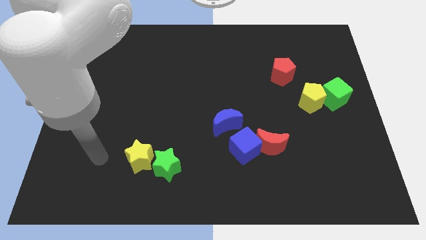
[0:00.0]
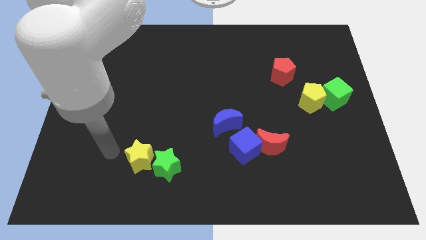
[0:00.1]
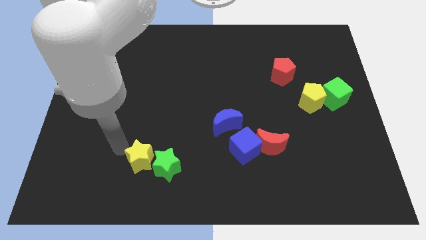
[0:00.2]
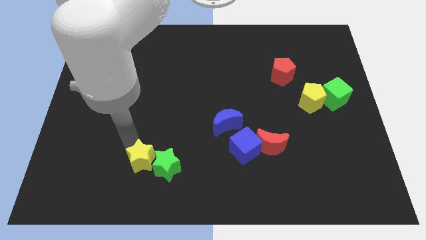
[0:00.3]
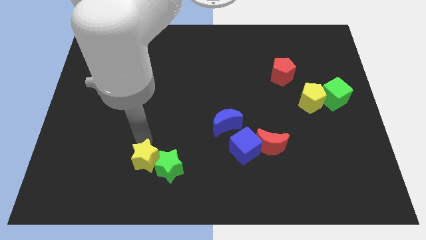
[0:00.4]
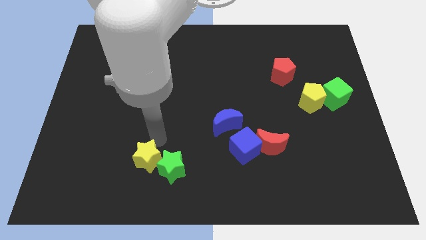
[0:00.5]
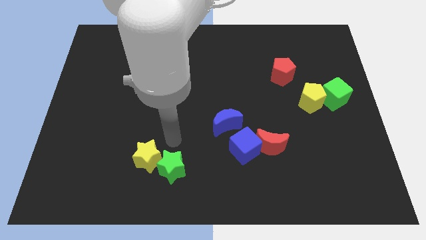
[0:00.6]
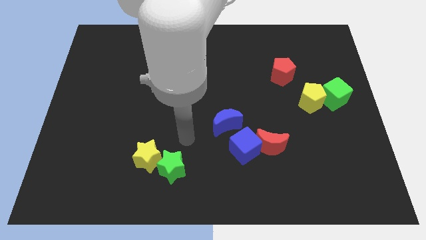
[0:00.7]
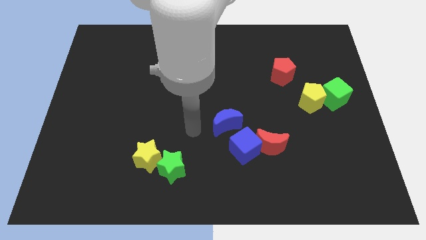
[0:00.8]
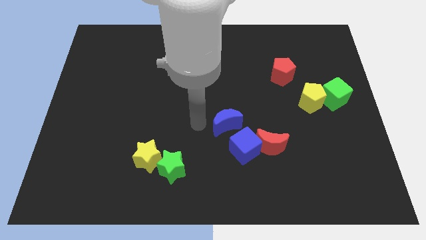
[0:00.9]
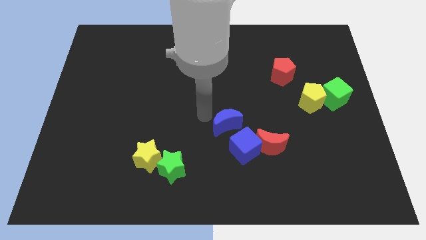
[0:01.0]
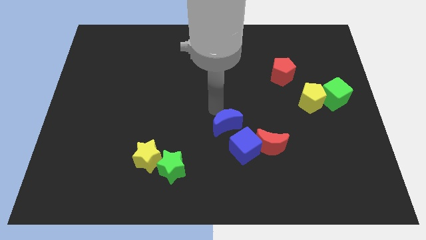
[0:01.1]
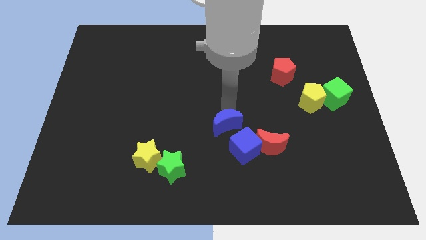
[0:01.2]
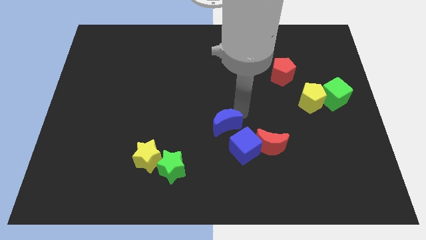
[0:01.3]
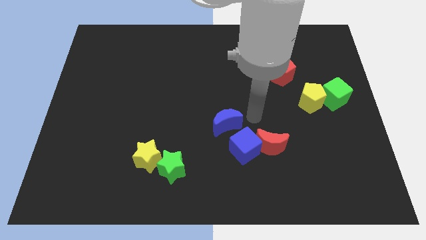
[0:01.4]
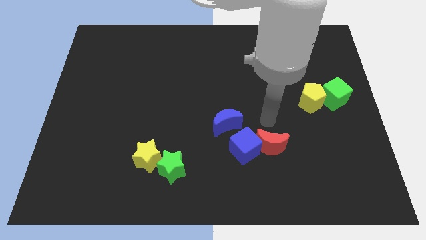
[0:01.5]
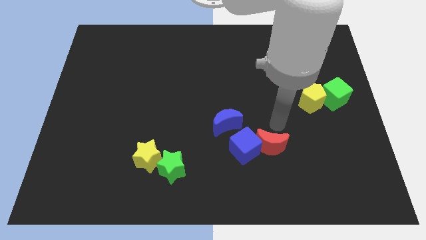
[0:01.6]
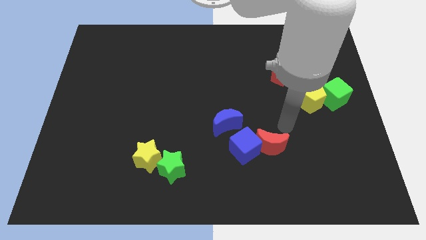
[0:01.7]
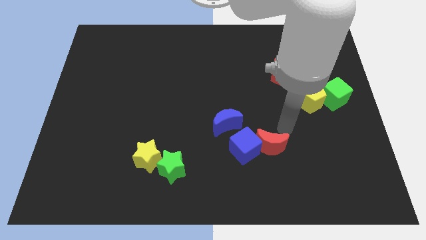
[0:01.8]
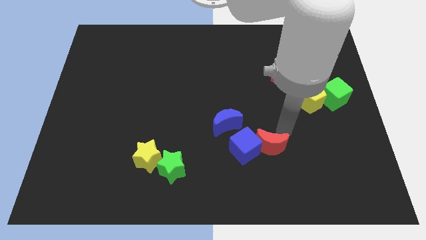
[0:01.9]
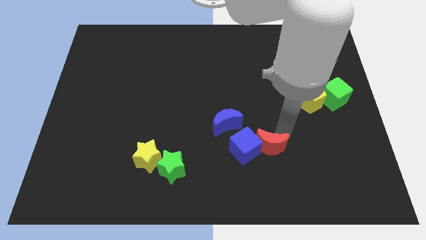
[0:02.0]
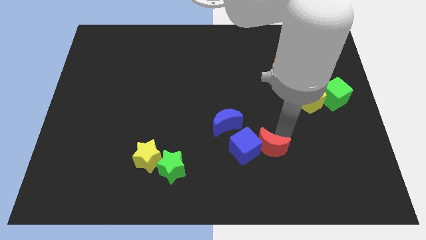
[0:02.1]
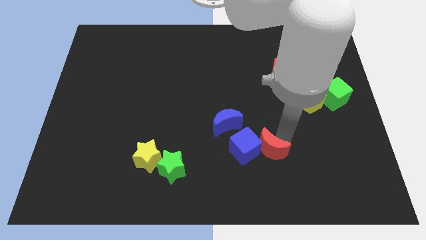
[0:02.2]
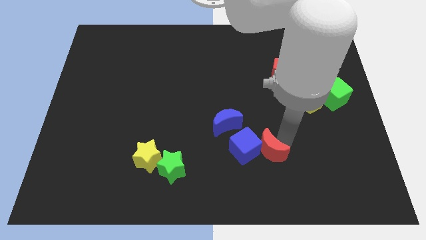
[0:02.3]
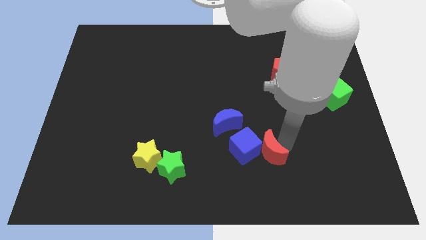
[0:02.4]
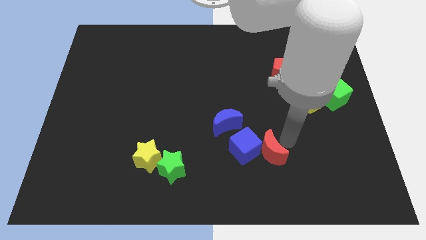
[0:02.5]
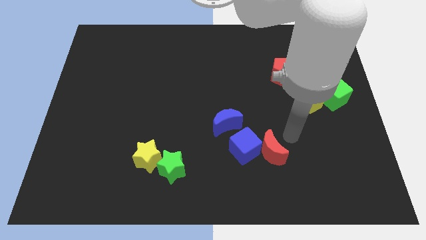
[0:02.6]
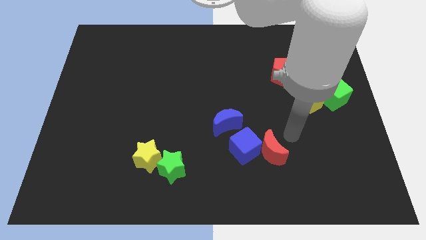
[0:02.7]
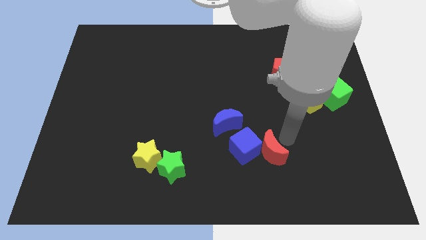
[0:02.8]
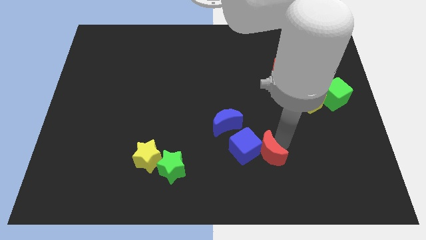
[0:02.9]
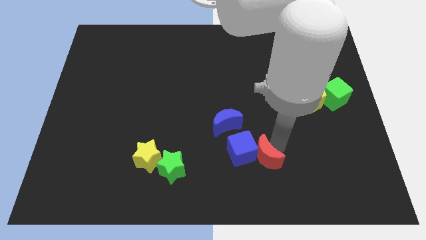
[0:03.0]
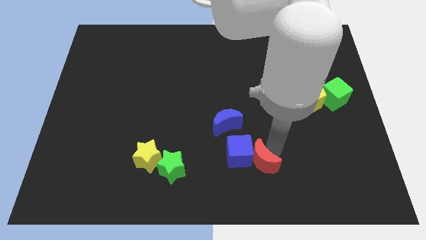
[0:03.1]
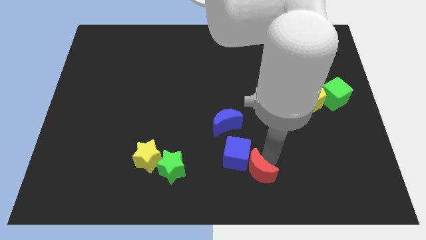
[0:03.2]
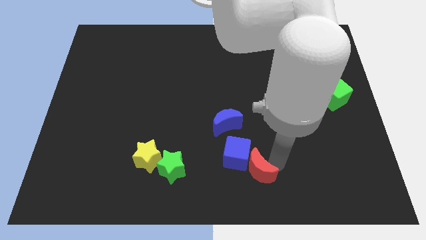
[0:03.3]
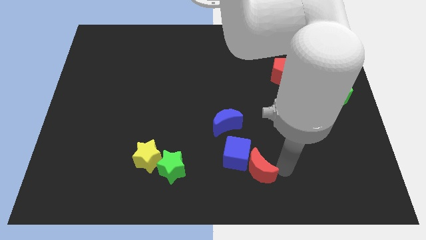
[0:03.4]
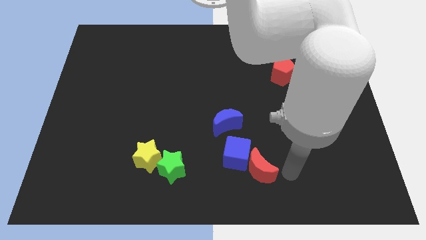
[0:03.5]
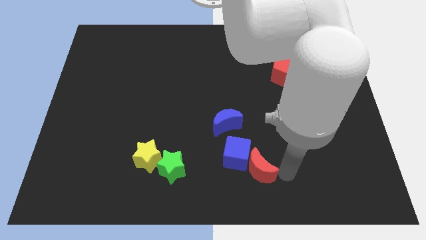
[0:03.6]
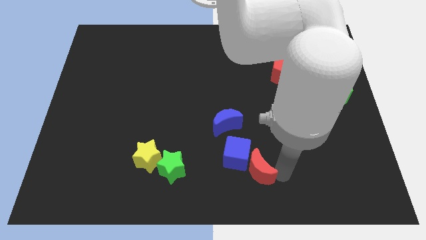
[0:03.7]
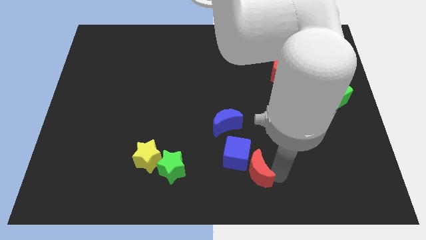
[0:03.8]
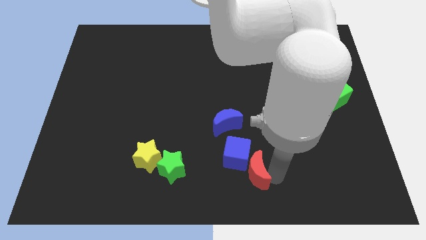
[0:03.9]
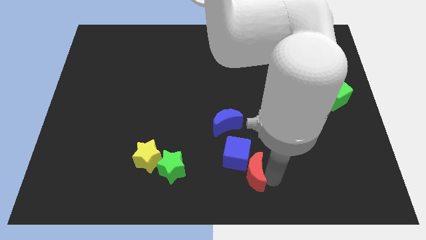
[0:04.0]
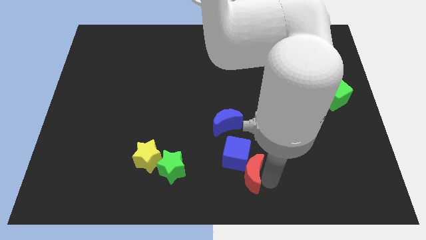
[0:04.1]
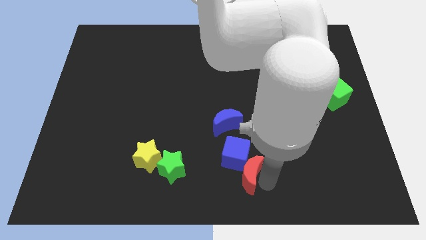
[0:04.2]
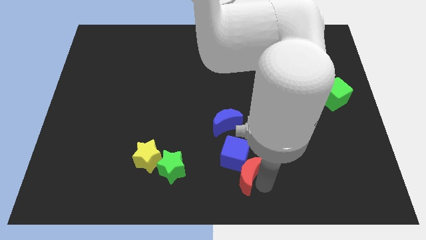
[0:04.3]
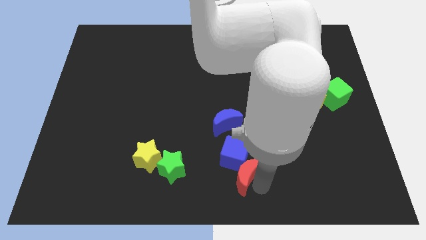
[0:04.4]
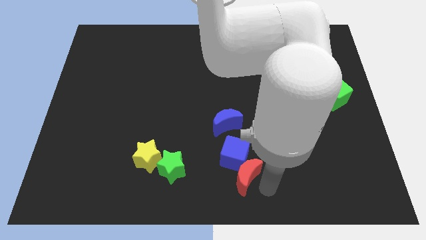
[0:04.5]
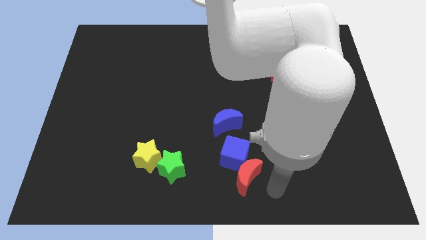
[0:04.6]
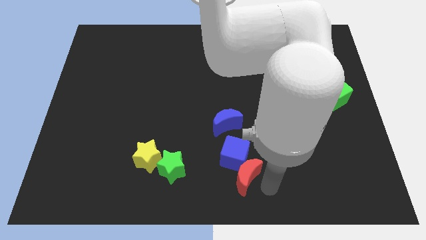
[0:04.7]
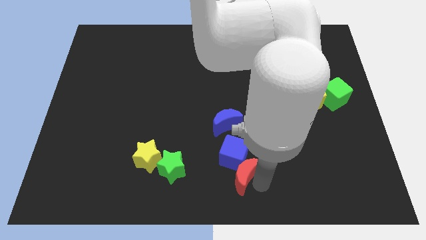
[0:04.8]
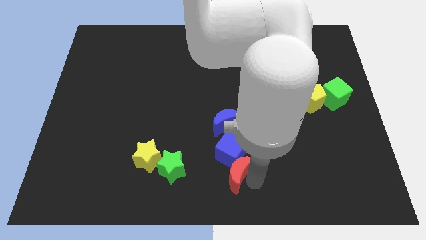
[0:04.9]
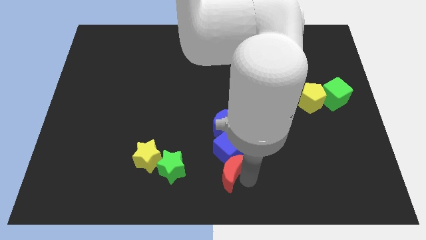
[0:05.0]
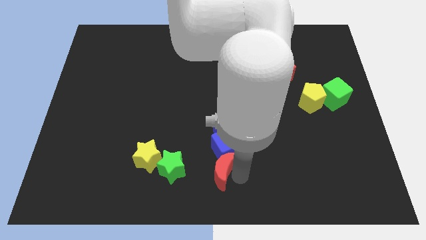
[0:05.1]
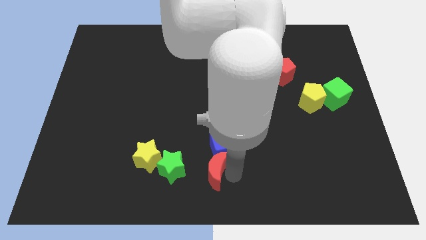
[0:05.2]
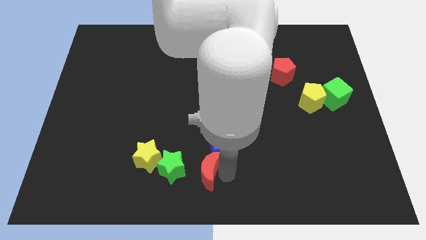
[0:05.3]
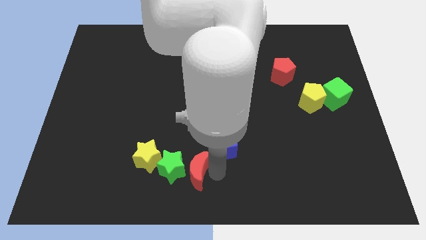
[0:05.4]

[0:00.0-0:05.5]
move the red moon towards the green star

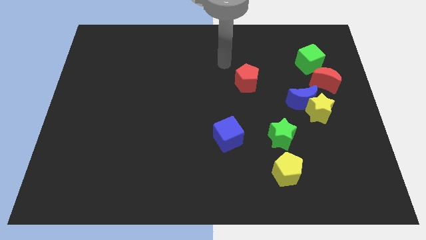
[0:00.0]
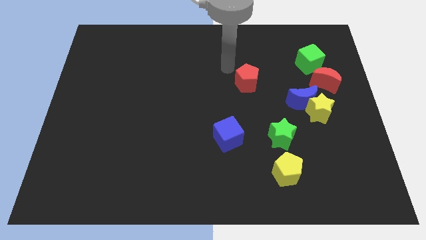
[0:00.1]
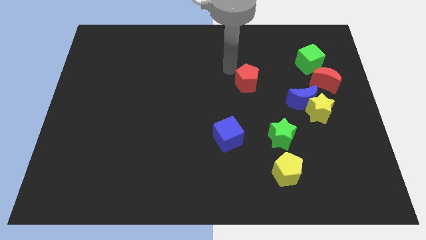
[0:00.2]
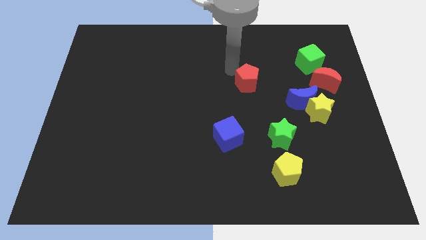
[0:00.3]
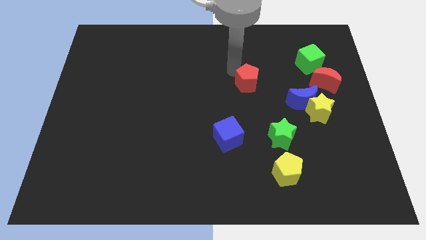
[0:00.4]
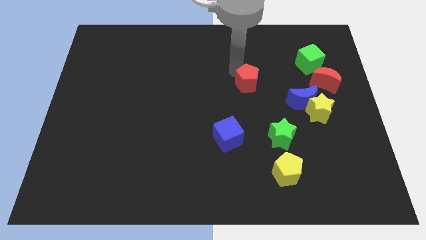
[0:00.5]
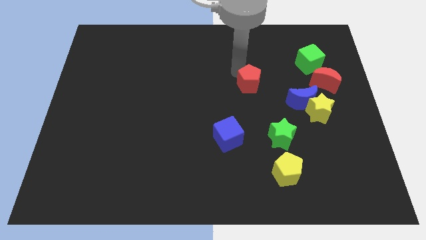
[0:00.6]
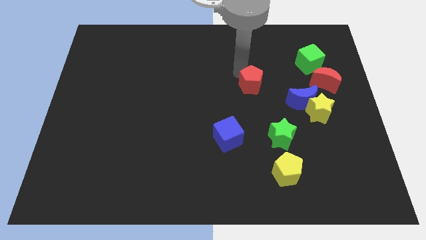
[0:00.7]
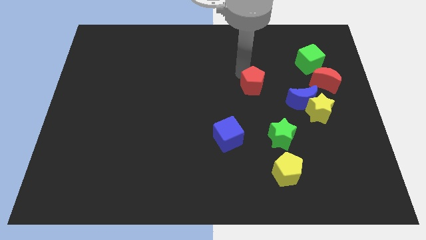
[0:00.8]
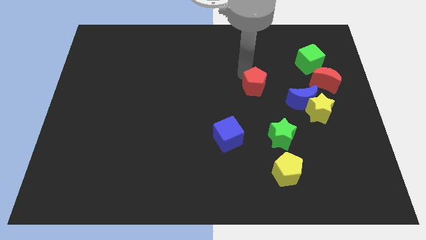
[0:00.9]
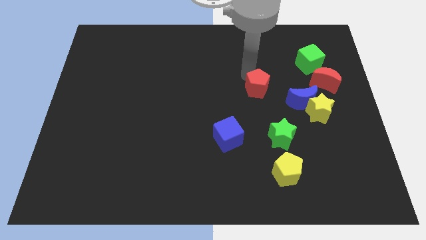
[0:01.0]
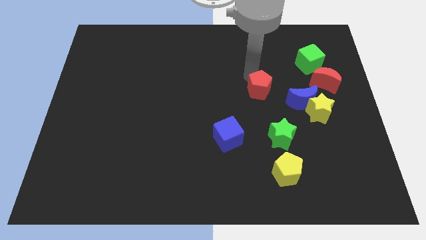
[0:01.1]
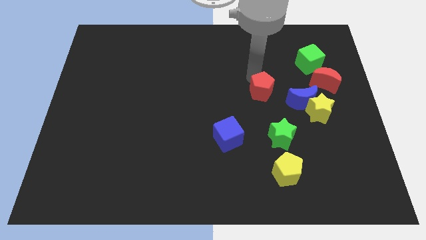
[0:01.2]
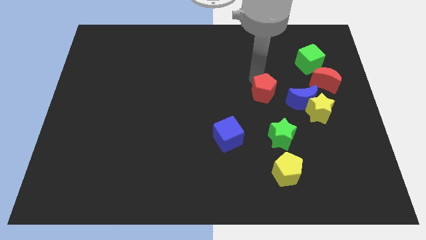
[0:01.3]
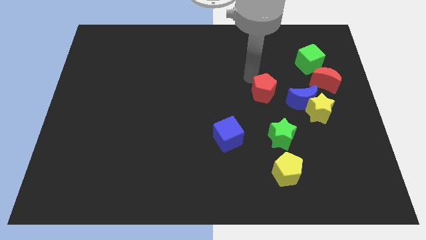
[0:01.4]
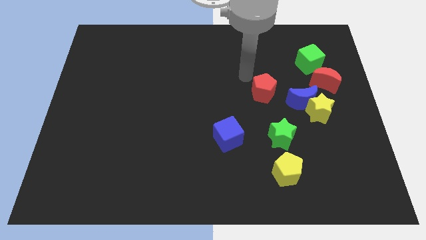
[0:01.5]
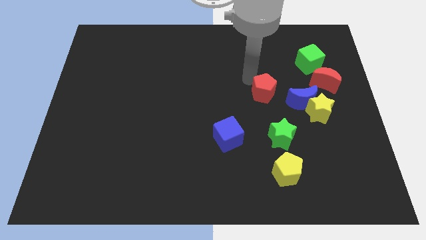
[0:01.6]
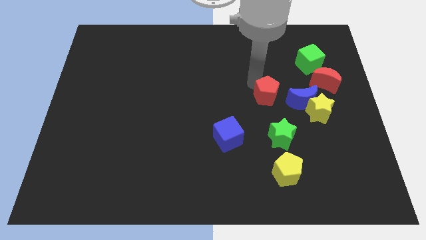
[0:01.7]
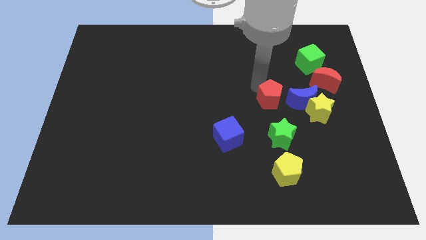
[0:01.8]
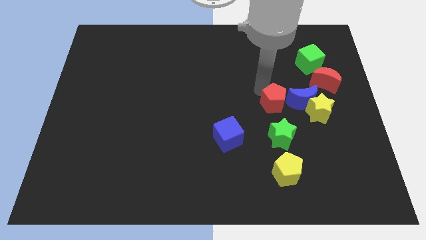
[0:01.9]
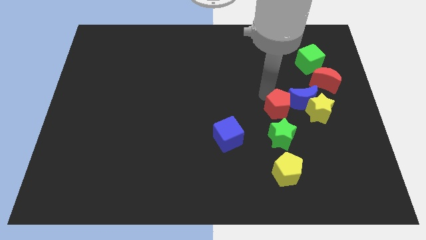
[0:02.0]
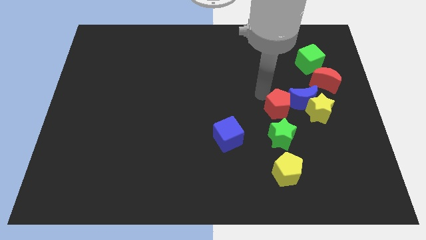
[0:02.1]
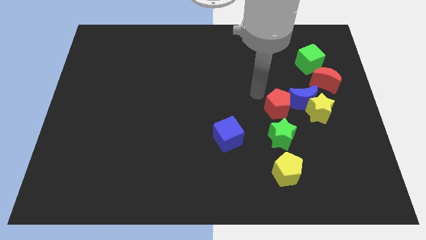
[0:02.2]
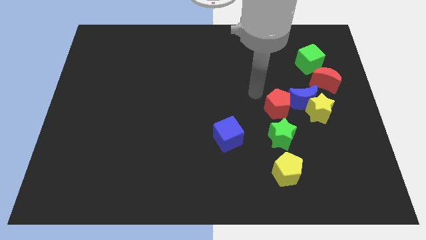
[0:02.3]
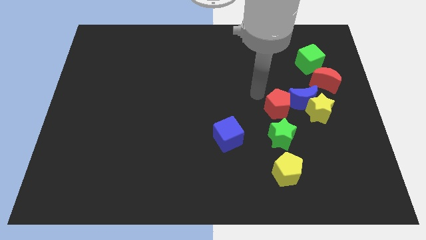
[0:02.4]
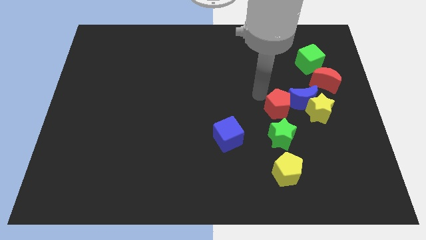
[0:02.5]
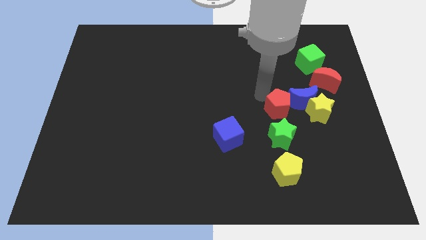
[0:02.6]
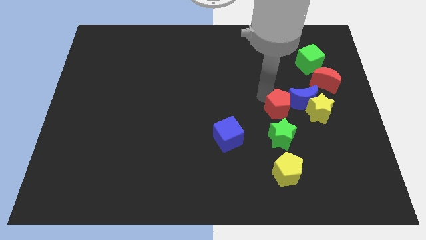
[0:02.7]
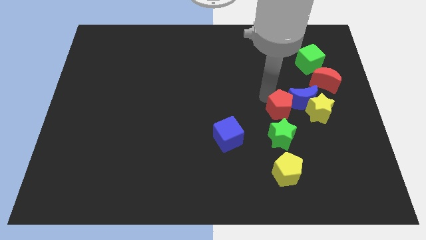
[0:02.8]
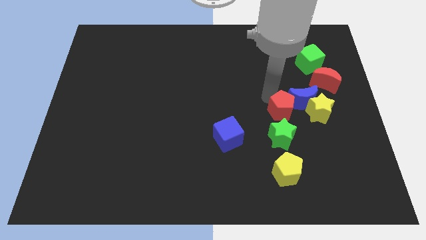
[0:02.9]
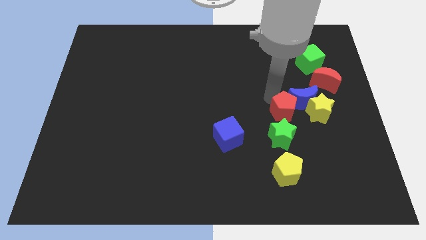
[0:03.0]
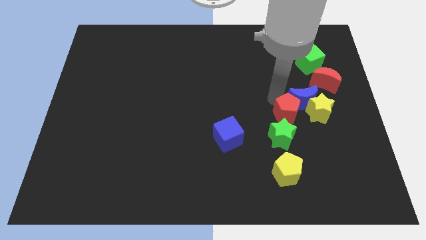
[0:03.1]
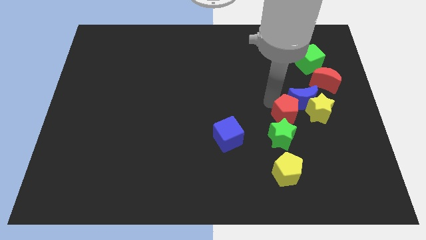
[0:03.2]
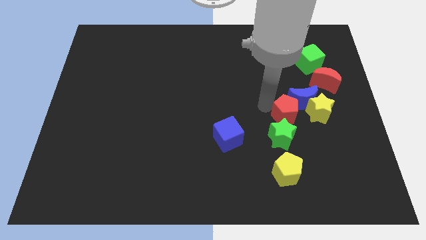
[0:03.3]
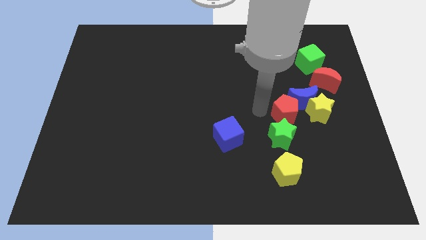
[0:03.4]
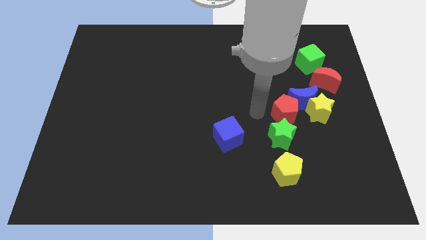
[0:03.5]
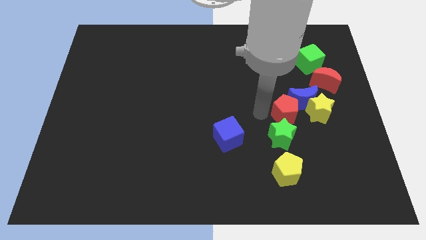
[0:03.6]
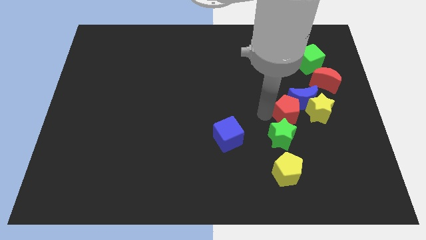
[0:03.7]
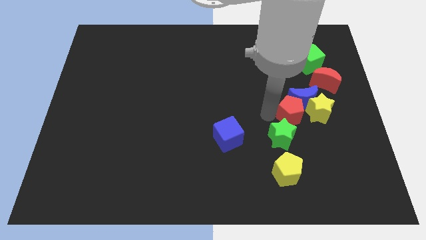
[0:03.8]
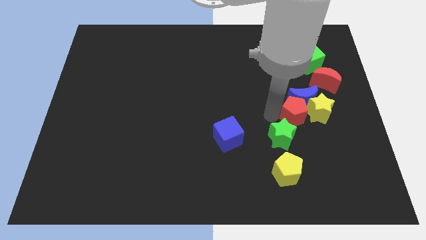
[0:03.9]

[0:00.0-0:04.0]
push the red pentagon close to the yellow star
